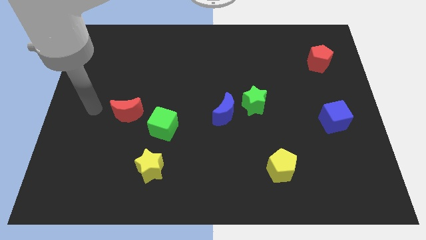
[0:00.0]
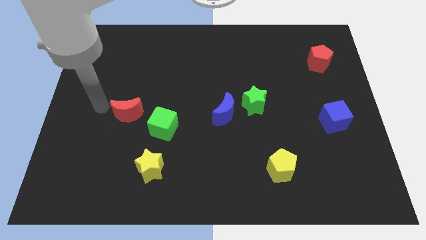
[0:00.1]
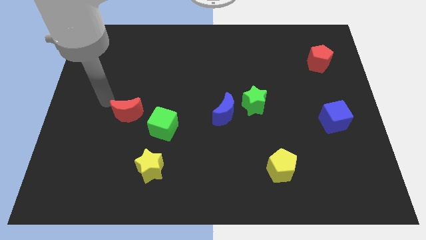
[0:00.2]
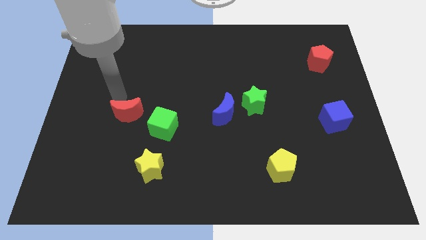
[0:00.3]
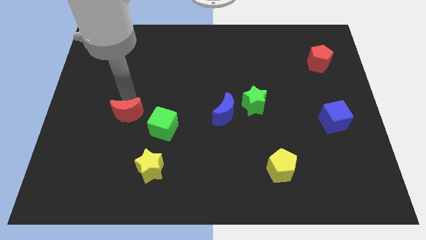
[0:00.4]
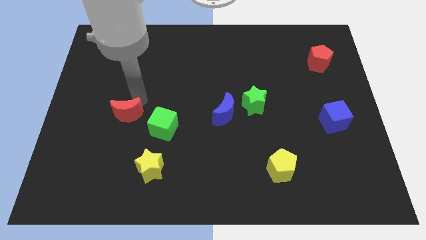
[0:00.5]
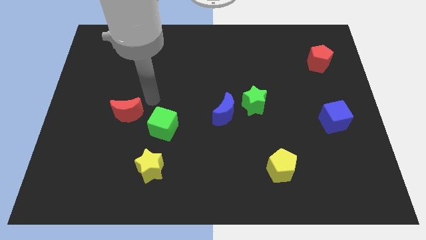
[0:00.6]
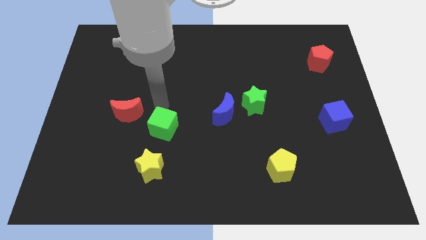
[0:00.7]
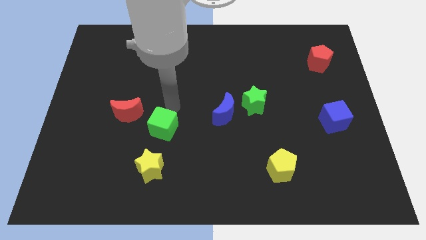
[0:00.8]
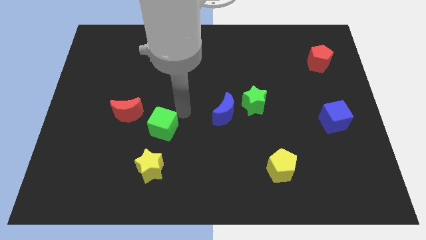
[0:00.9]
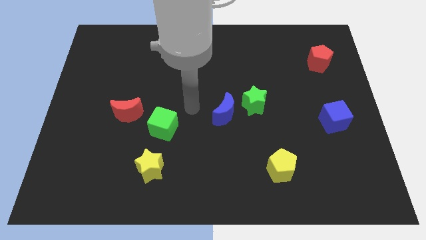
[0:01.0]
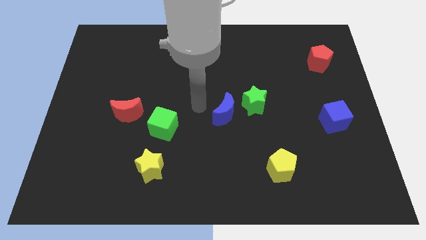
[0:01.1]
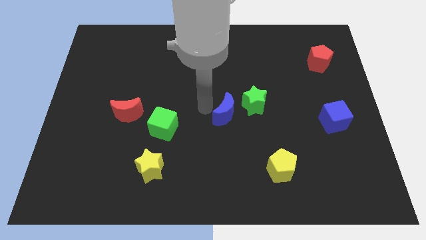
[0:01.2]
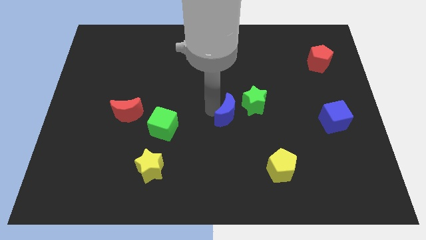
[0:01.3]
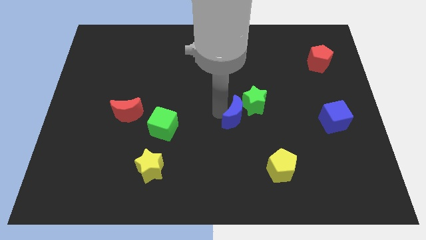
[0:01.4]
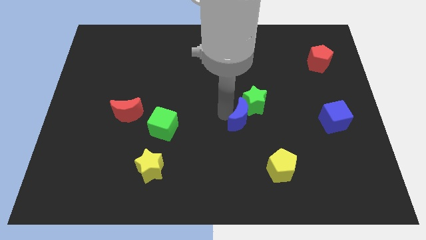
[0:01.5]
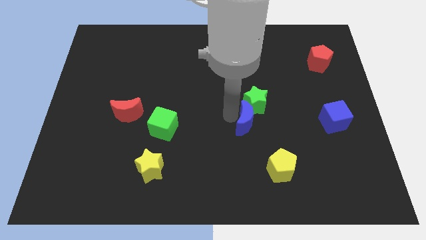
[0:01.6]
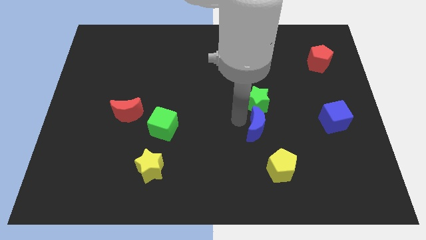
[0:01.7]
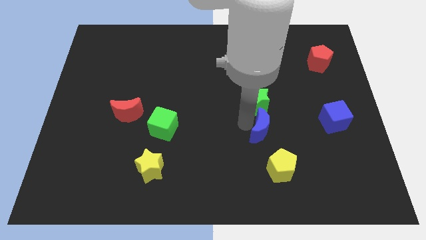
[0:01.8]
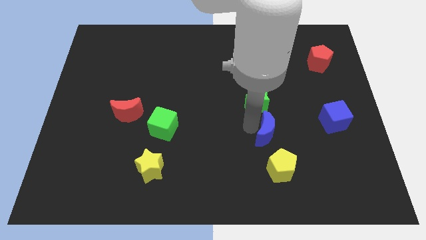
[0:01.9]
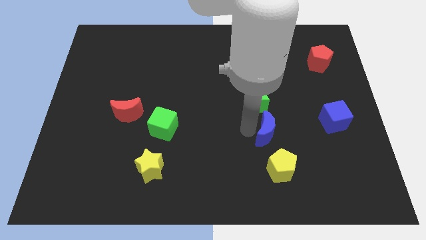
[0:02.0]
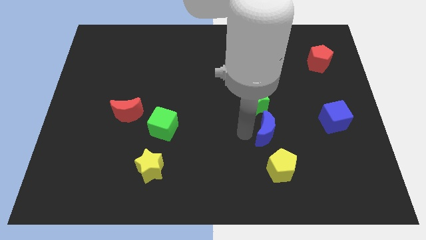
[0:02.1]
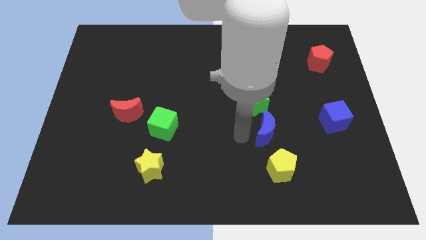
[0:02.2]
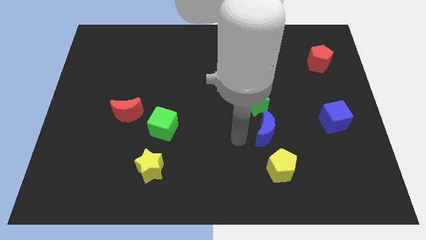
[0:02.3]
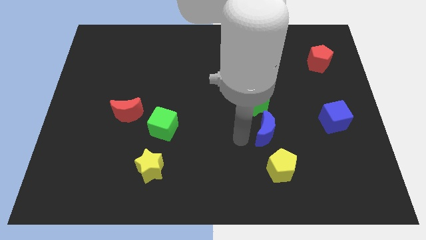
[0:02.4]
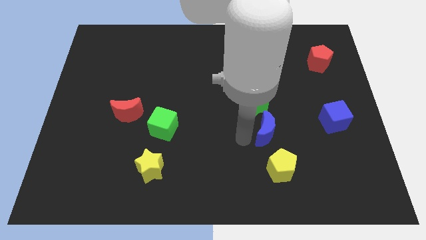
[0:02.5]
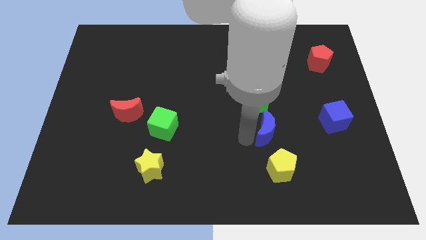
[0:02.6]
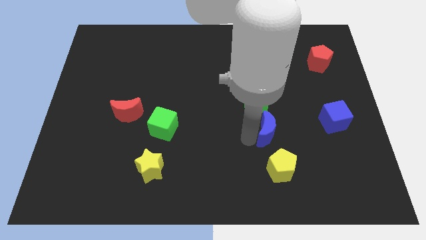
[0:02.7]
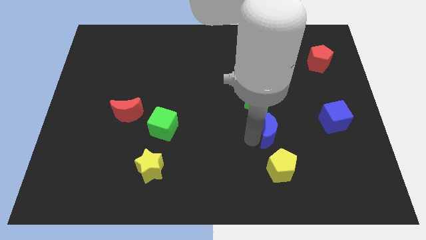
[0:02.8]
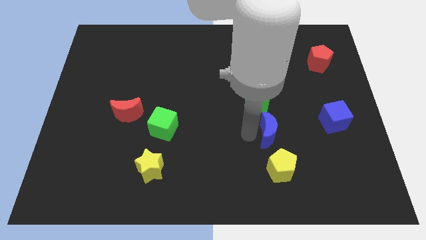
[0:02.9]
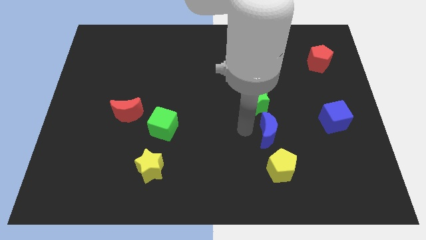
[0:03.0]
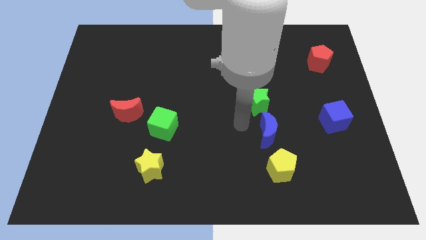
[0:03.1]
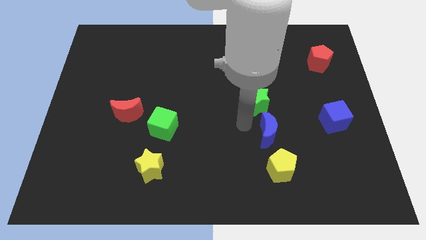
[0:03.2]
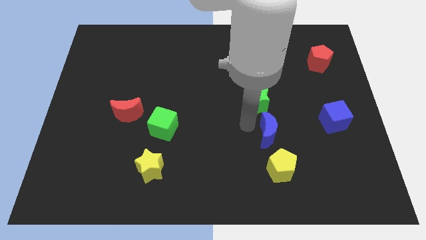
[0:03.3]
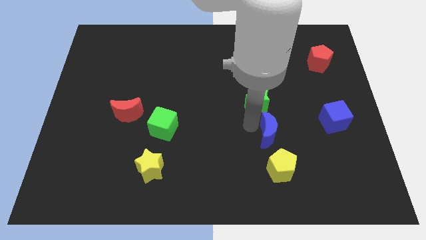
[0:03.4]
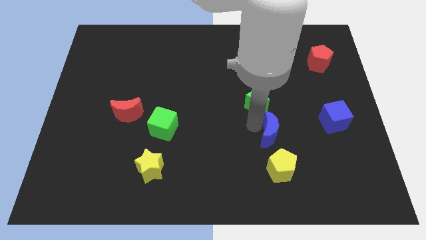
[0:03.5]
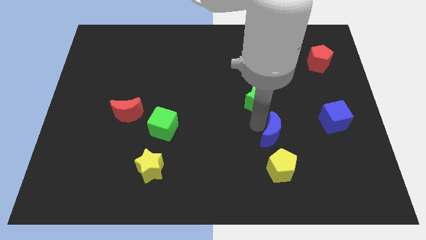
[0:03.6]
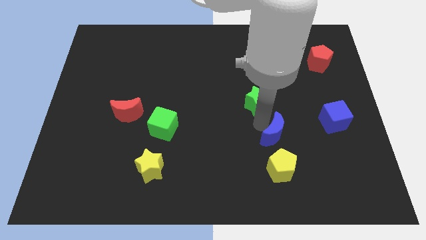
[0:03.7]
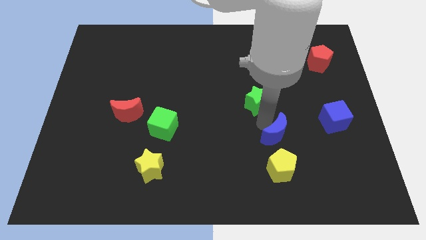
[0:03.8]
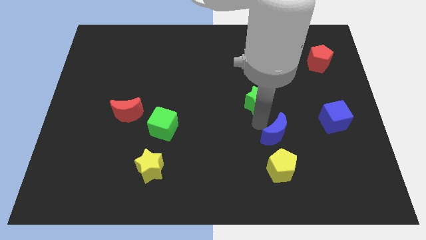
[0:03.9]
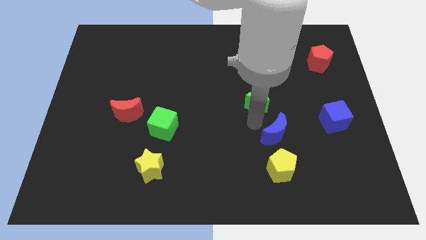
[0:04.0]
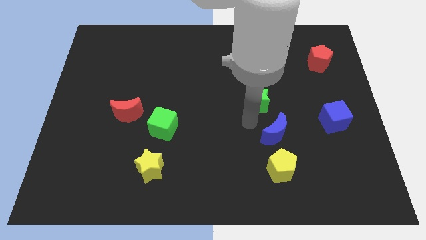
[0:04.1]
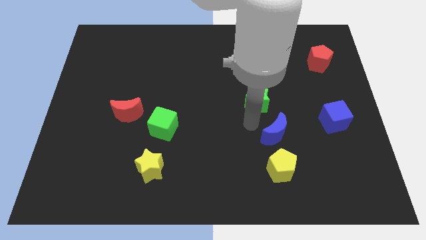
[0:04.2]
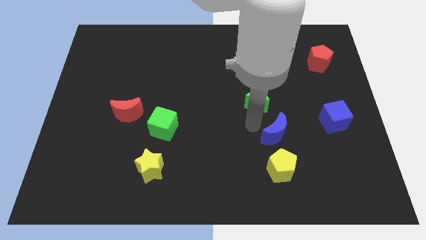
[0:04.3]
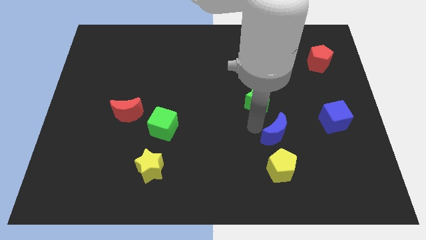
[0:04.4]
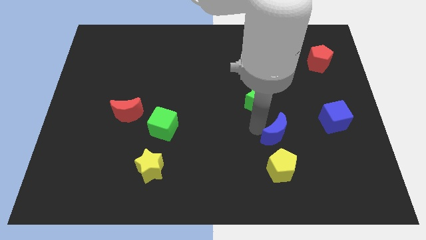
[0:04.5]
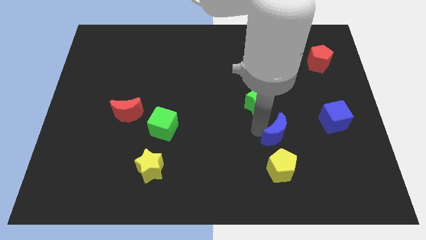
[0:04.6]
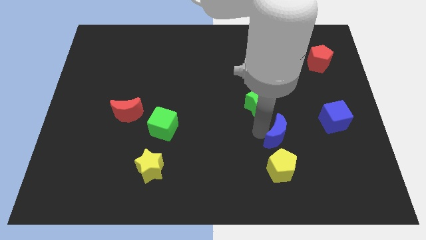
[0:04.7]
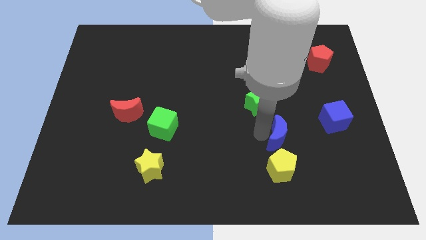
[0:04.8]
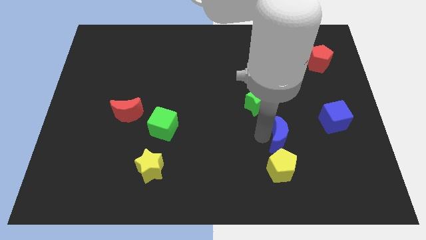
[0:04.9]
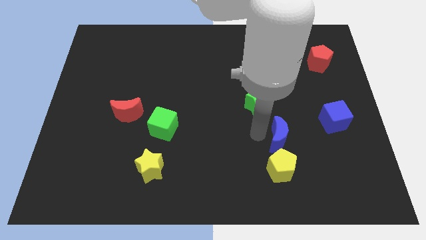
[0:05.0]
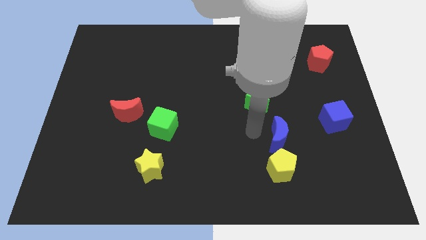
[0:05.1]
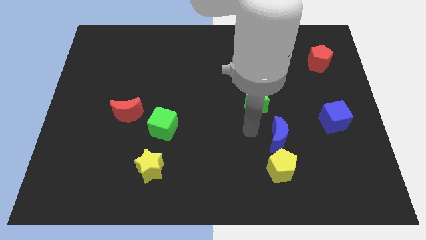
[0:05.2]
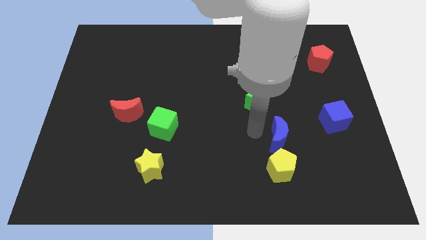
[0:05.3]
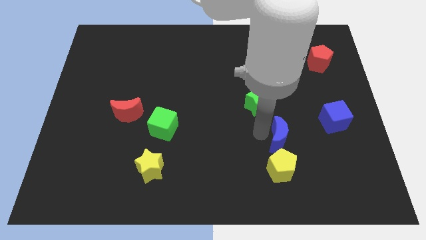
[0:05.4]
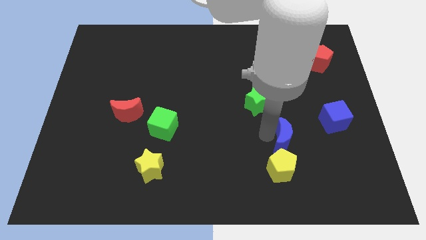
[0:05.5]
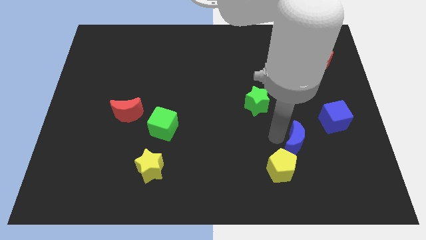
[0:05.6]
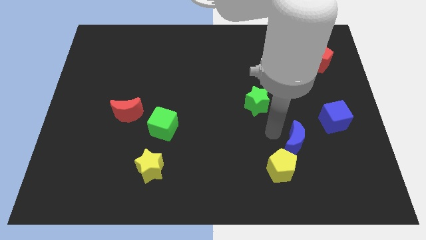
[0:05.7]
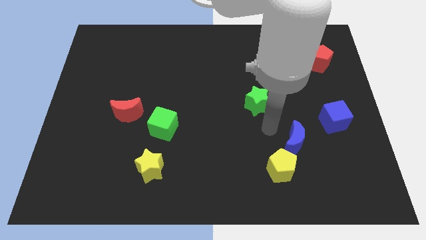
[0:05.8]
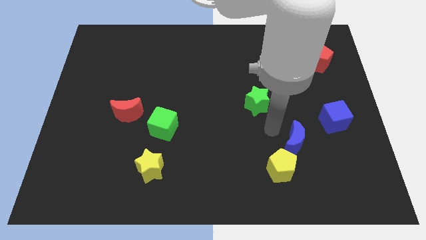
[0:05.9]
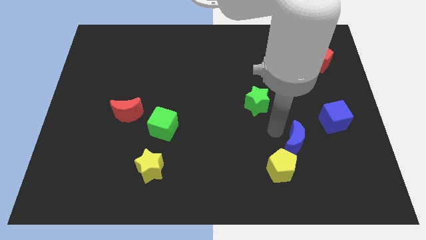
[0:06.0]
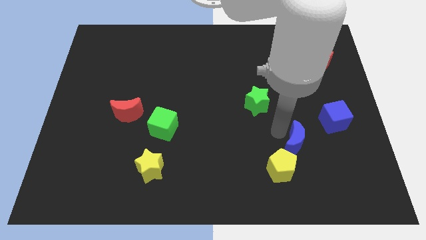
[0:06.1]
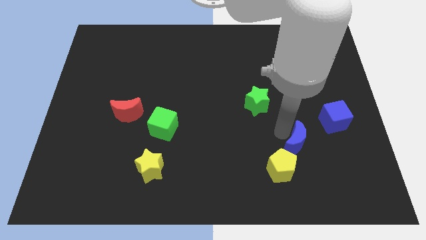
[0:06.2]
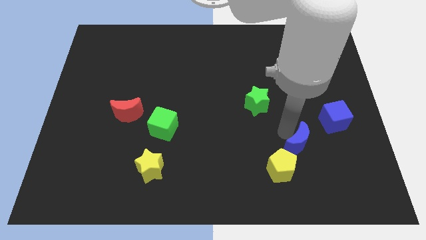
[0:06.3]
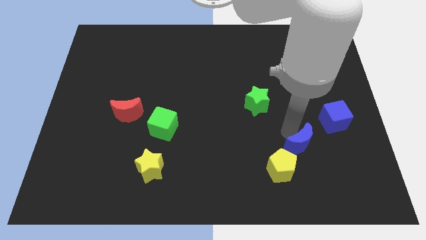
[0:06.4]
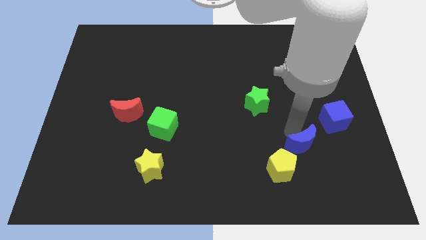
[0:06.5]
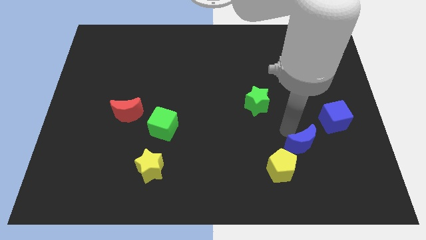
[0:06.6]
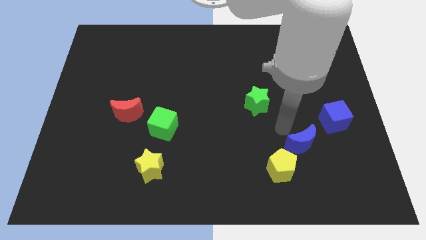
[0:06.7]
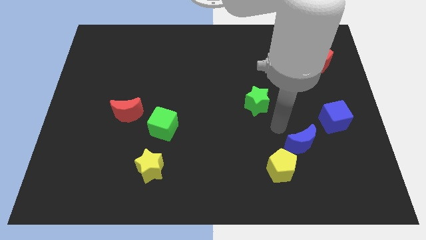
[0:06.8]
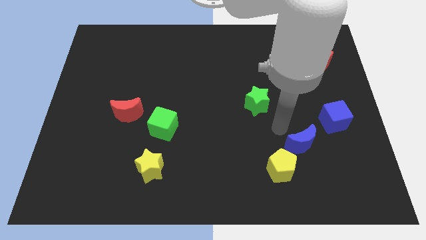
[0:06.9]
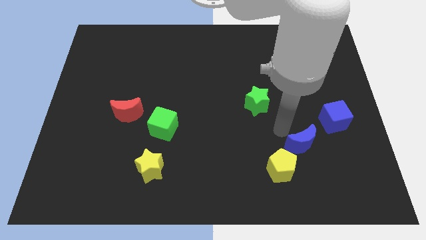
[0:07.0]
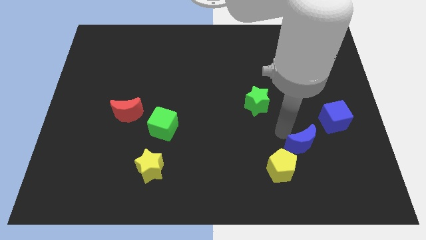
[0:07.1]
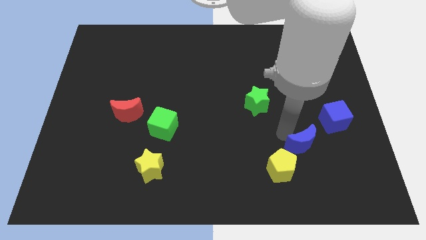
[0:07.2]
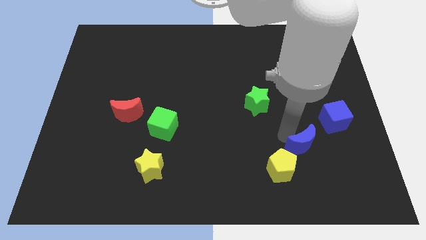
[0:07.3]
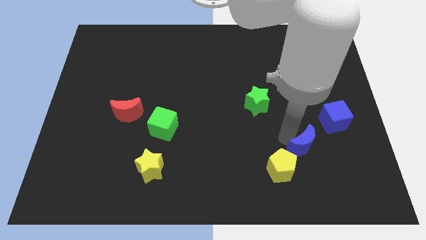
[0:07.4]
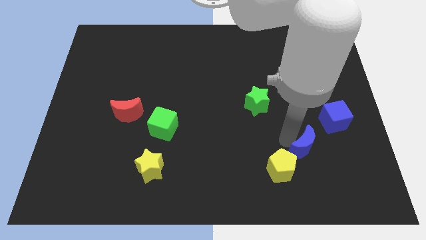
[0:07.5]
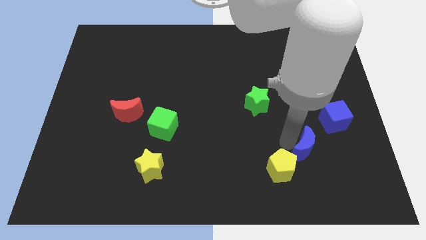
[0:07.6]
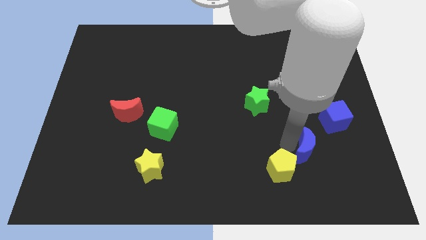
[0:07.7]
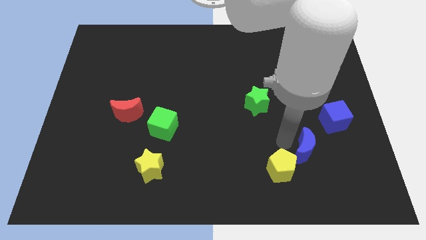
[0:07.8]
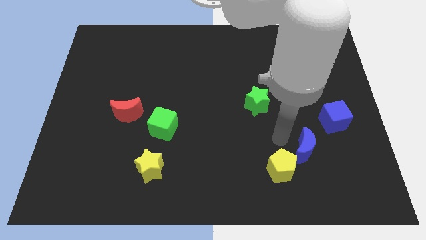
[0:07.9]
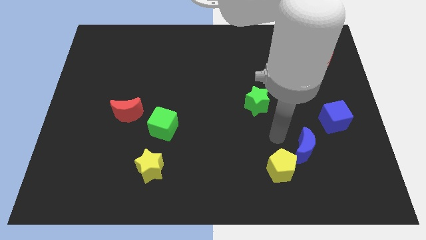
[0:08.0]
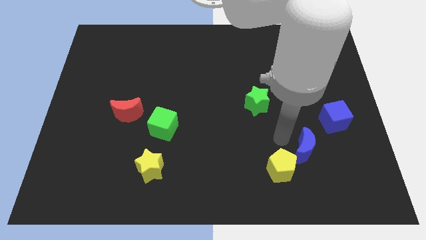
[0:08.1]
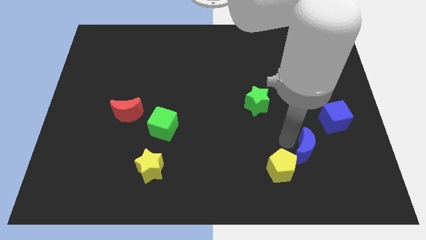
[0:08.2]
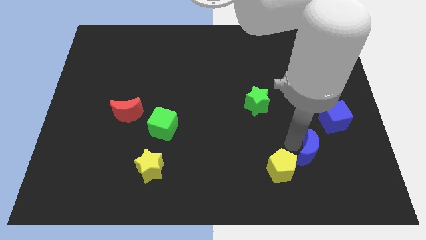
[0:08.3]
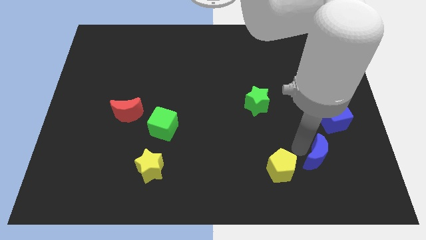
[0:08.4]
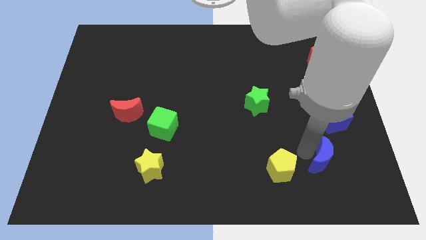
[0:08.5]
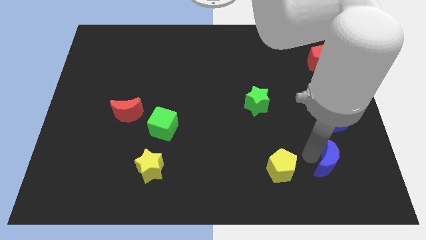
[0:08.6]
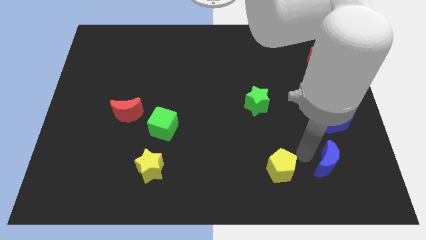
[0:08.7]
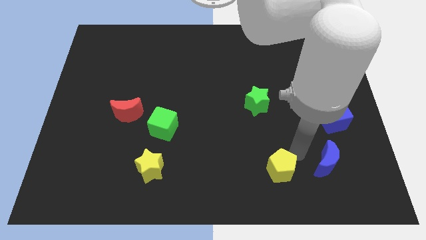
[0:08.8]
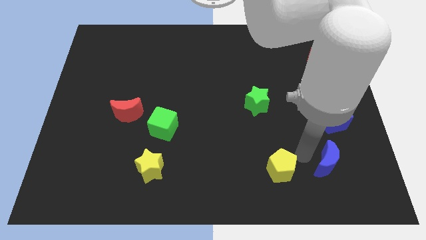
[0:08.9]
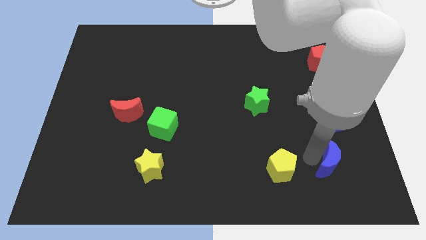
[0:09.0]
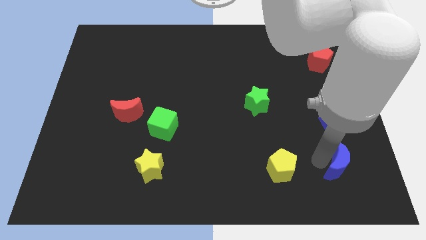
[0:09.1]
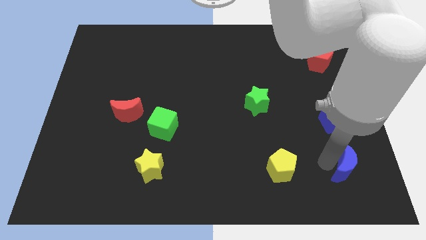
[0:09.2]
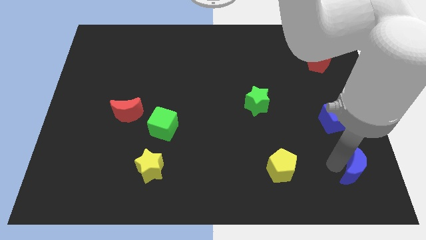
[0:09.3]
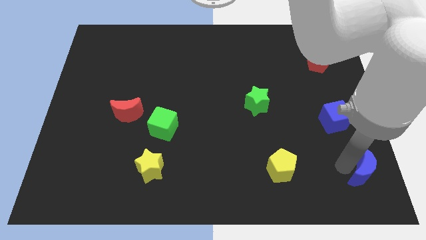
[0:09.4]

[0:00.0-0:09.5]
push the blue moon to the lower right corner
